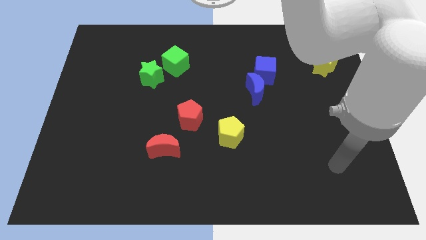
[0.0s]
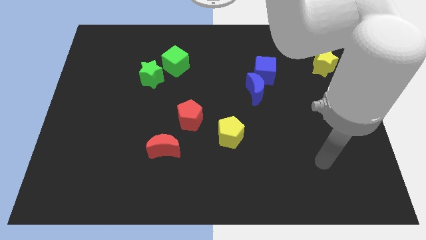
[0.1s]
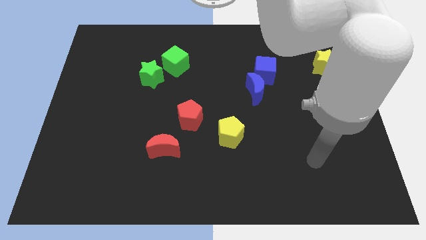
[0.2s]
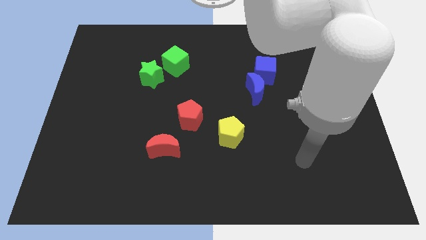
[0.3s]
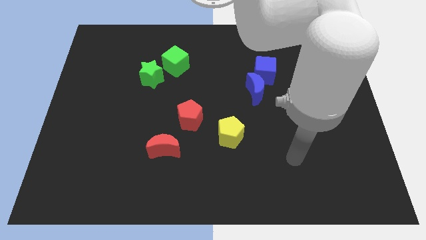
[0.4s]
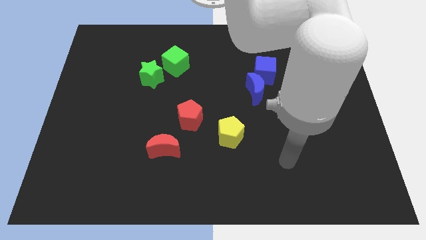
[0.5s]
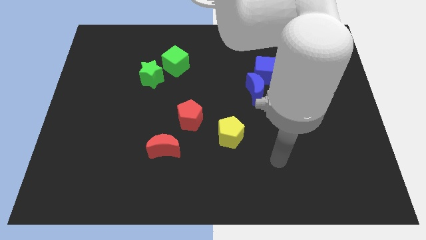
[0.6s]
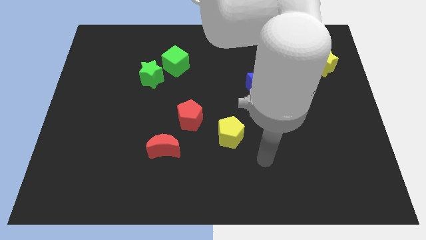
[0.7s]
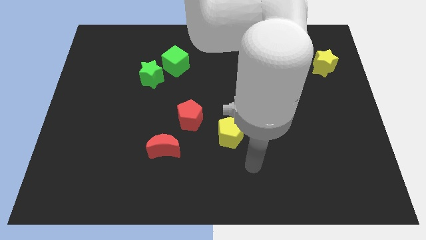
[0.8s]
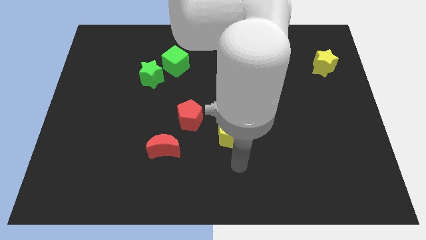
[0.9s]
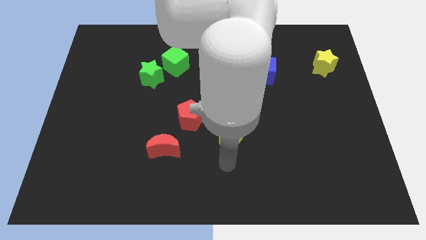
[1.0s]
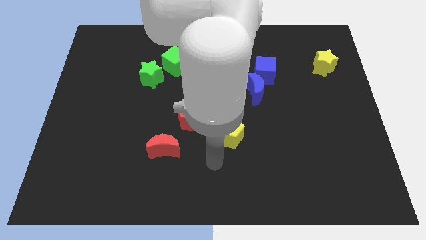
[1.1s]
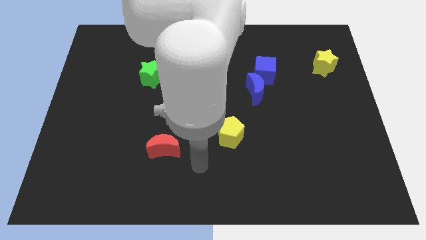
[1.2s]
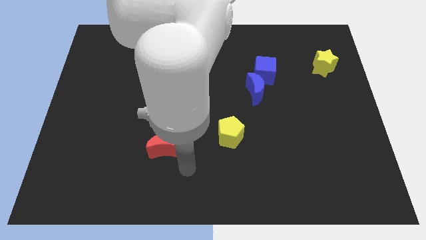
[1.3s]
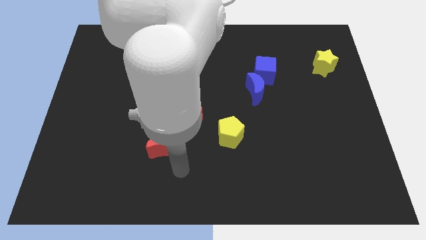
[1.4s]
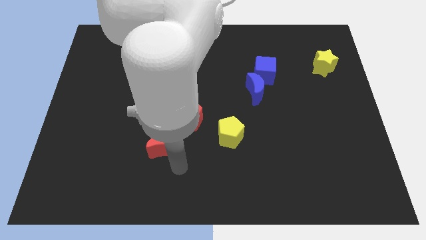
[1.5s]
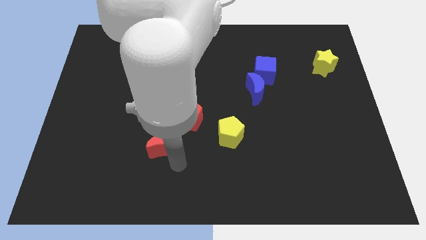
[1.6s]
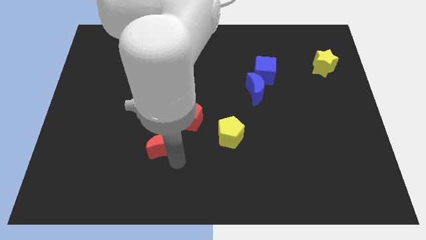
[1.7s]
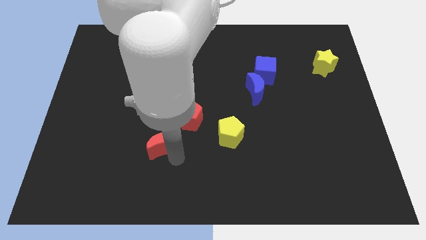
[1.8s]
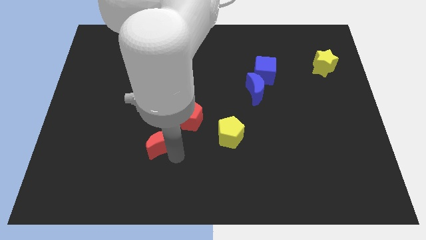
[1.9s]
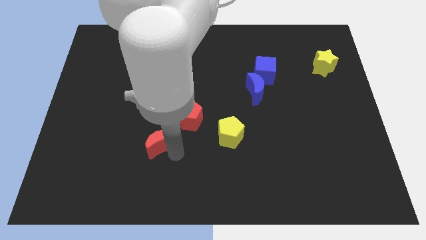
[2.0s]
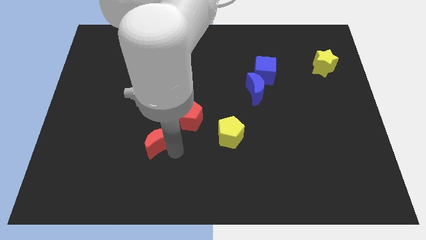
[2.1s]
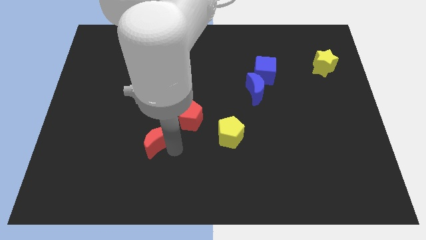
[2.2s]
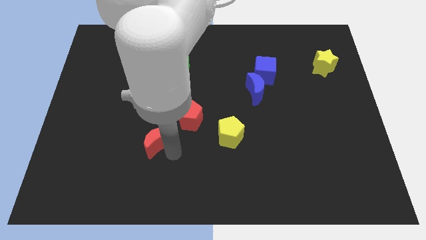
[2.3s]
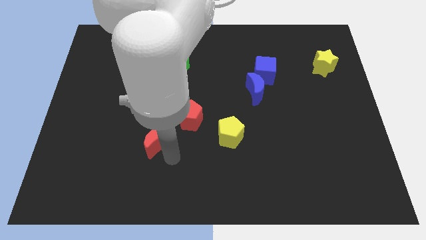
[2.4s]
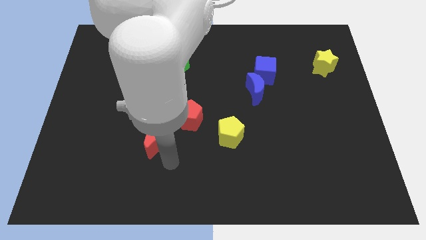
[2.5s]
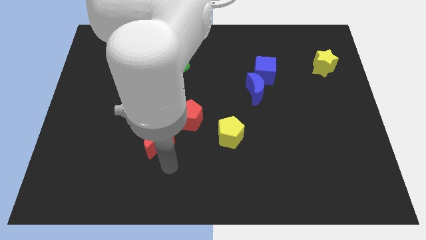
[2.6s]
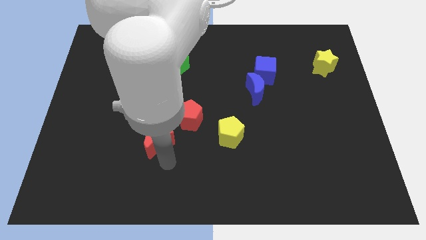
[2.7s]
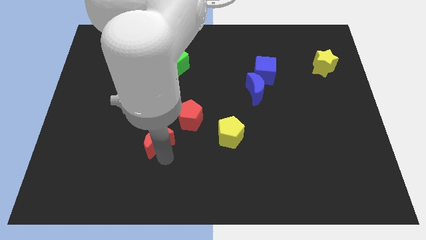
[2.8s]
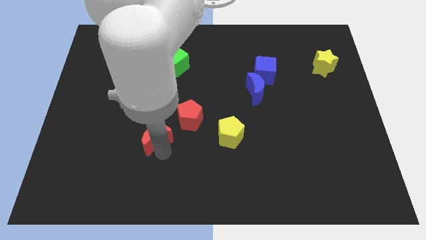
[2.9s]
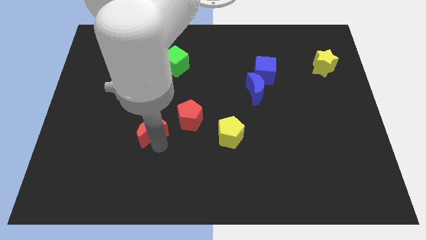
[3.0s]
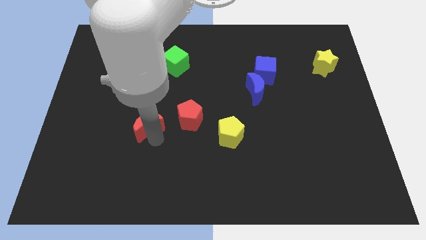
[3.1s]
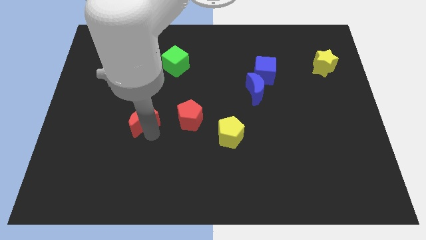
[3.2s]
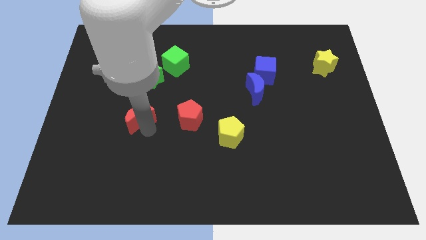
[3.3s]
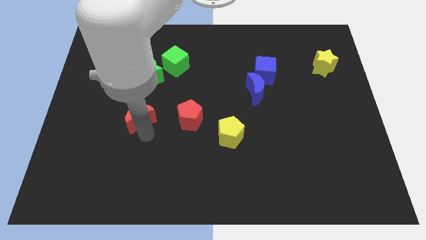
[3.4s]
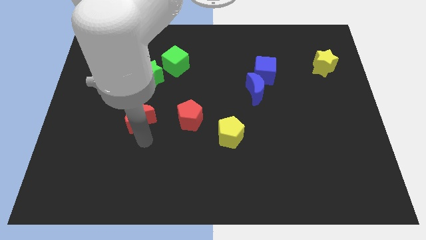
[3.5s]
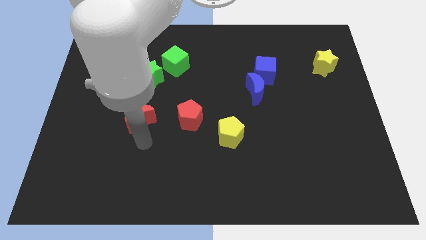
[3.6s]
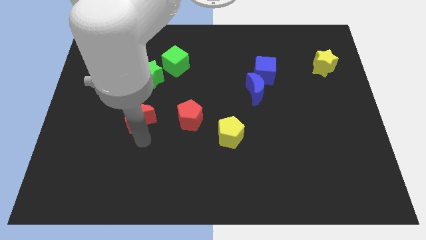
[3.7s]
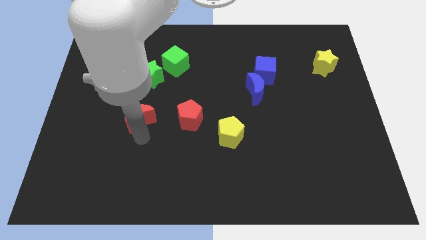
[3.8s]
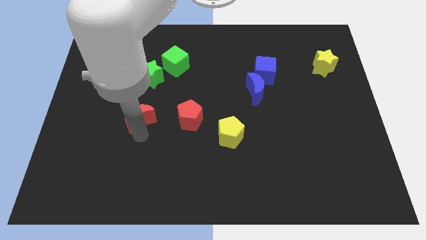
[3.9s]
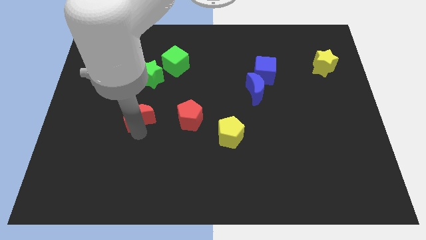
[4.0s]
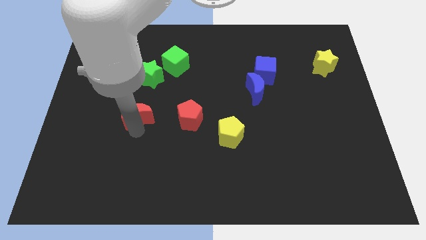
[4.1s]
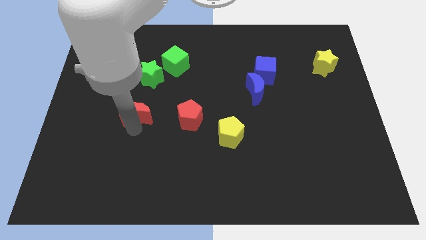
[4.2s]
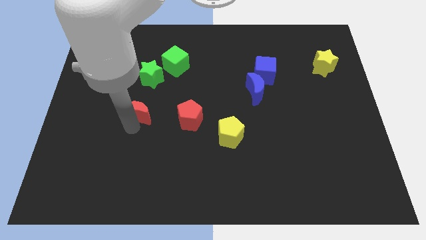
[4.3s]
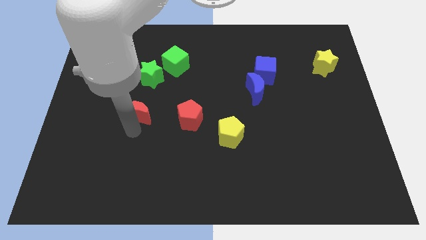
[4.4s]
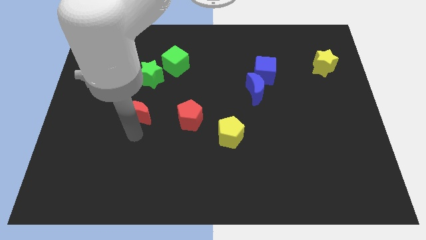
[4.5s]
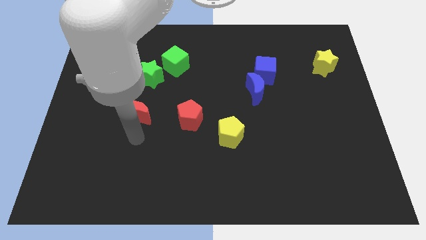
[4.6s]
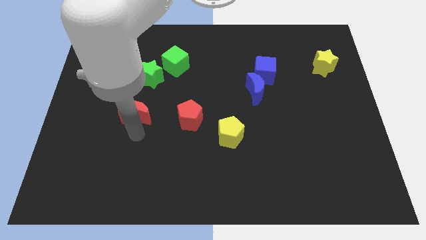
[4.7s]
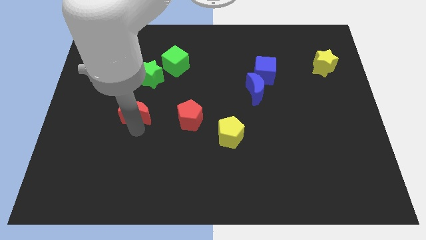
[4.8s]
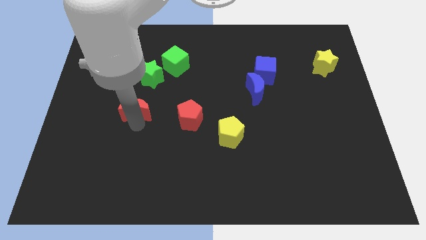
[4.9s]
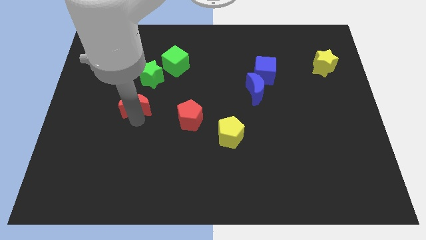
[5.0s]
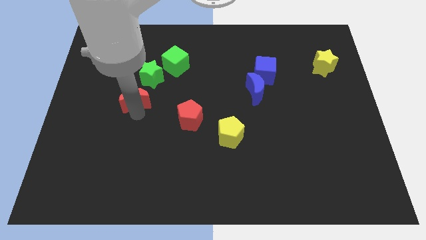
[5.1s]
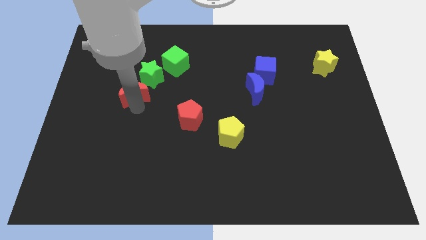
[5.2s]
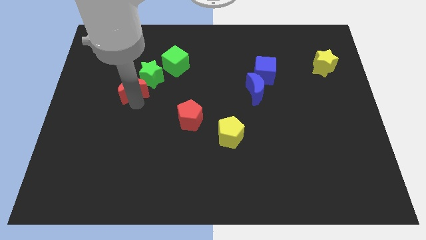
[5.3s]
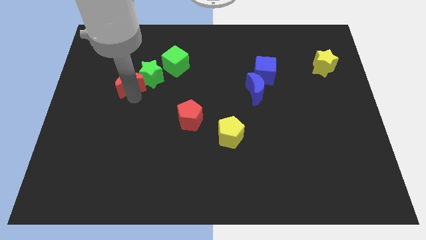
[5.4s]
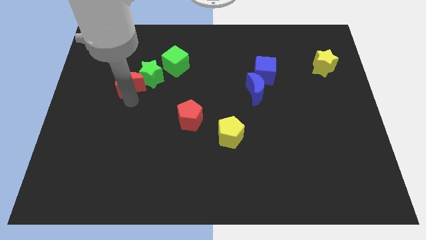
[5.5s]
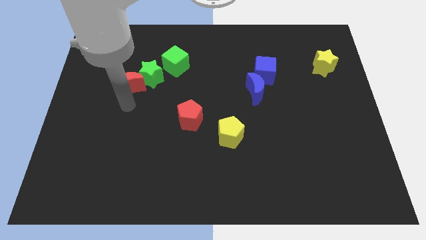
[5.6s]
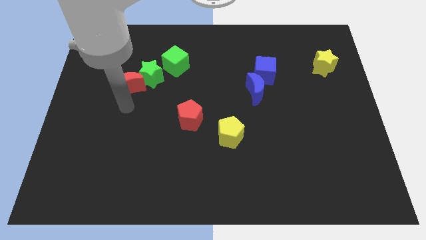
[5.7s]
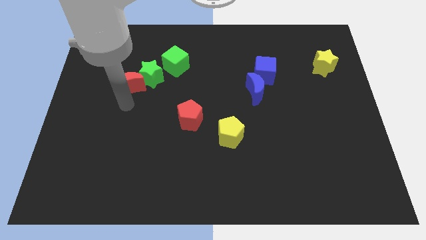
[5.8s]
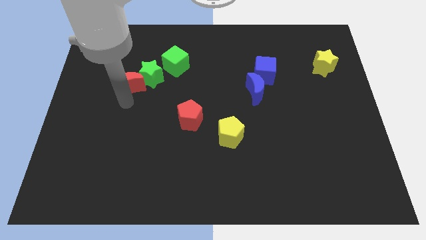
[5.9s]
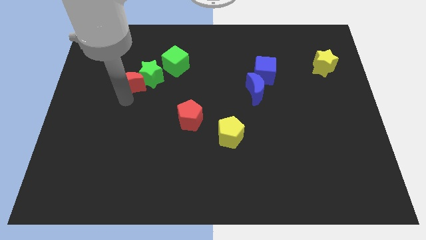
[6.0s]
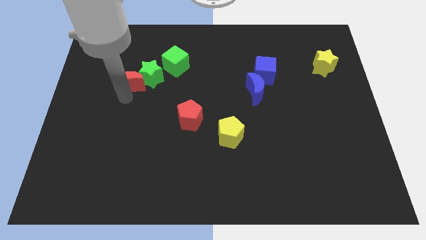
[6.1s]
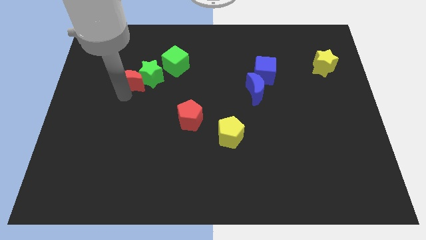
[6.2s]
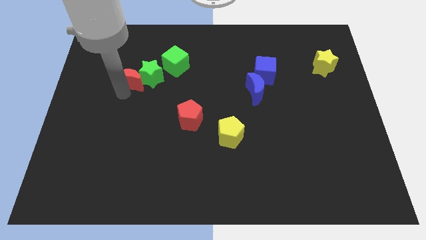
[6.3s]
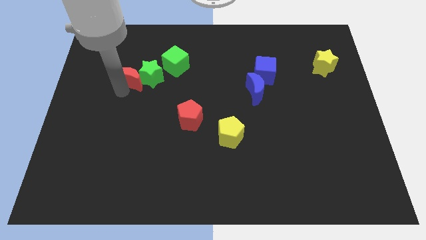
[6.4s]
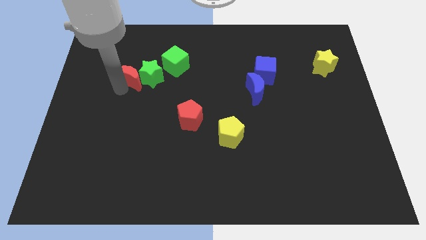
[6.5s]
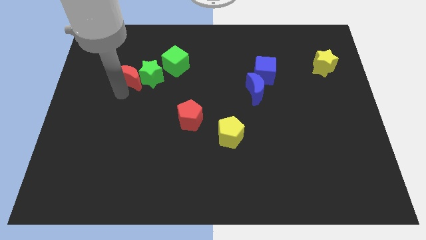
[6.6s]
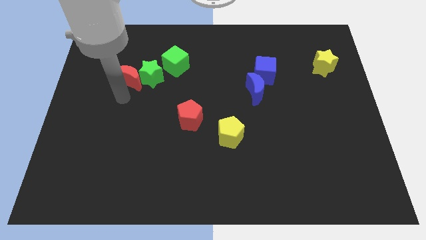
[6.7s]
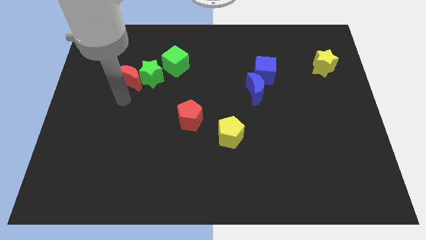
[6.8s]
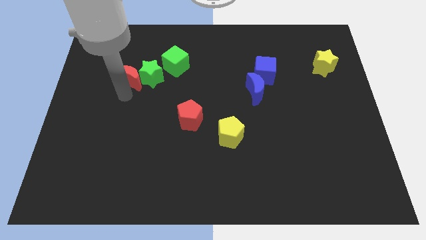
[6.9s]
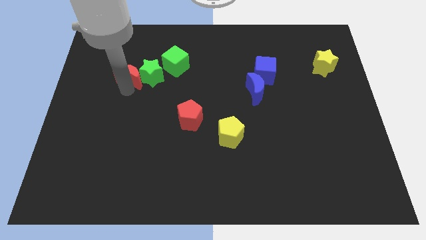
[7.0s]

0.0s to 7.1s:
move the red moon to the left of the green cube

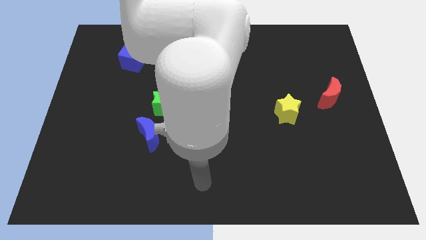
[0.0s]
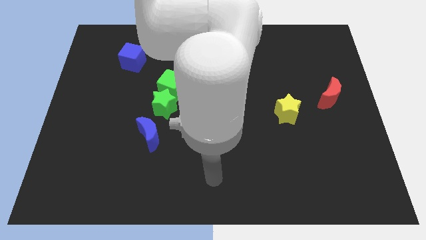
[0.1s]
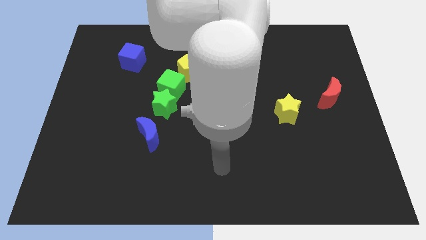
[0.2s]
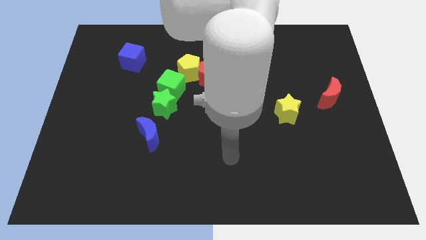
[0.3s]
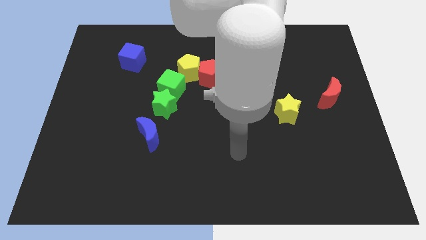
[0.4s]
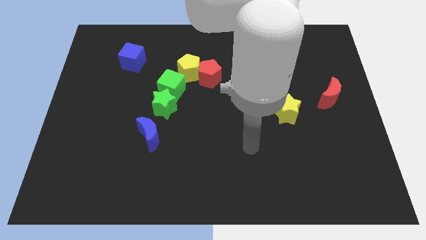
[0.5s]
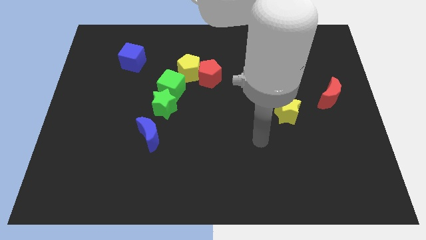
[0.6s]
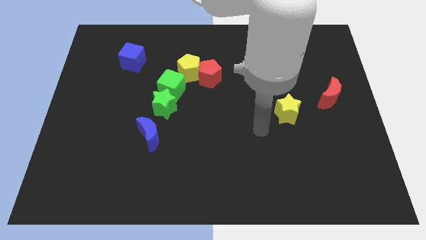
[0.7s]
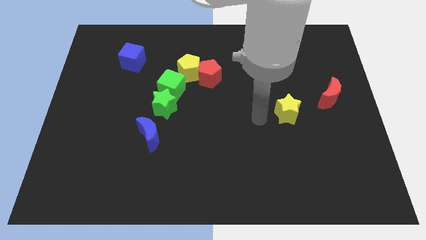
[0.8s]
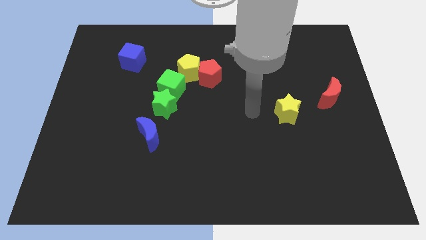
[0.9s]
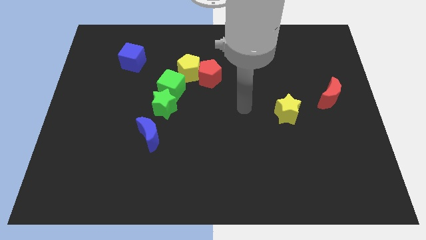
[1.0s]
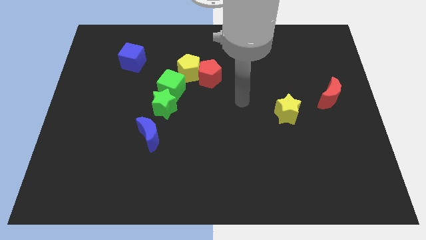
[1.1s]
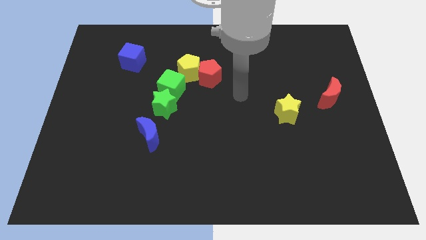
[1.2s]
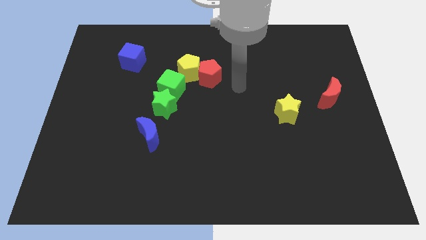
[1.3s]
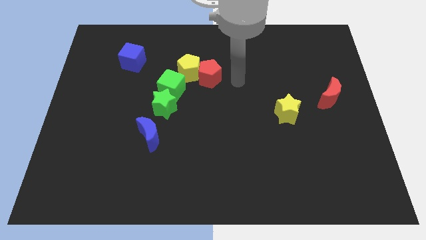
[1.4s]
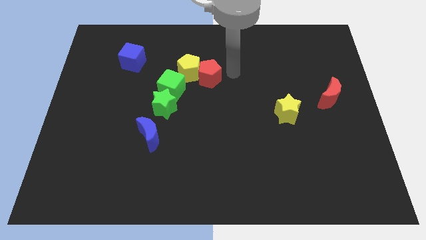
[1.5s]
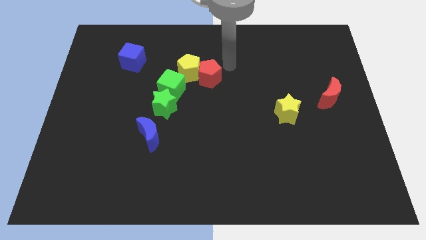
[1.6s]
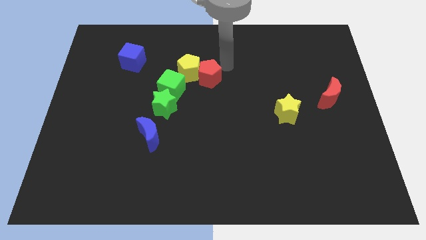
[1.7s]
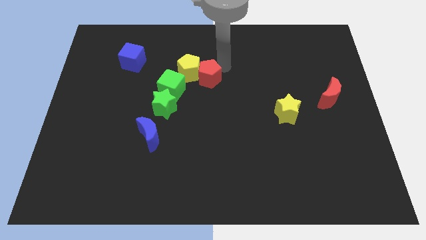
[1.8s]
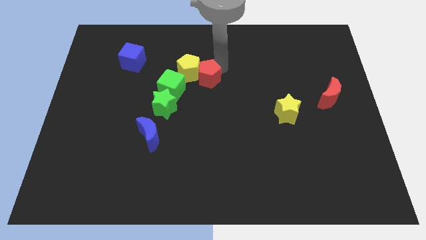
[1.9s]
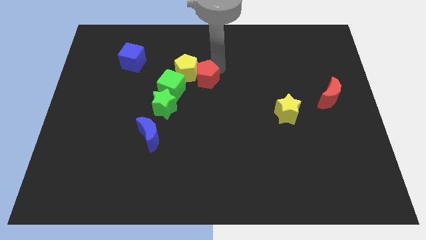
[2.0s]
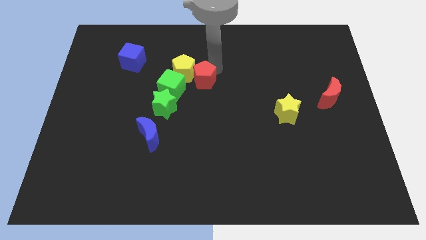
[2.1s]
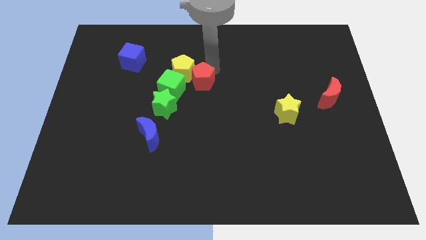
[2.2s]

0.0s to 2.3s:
slide the red pentagon diagonally up and to the right of the green star
